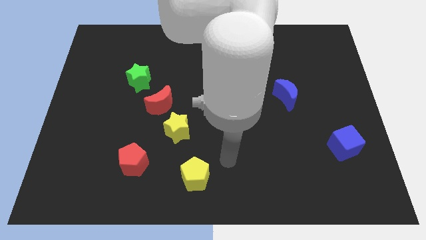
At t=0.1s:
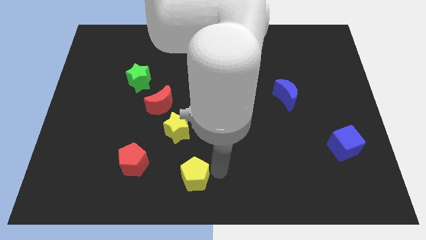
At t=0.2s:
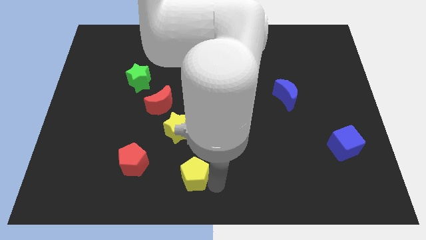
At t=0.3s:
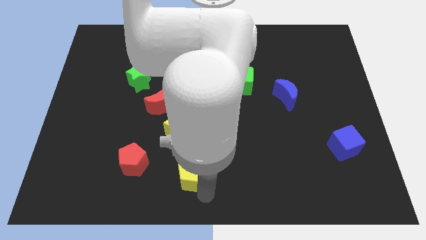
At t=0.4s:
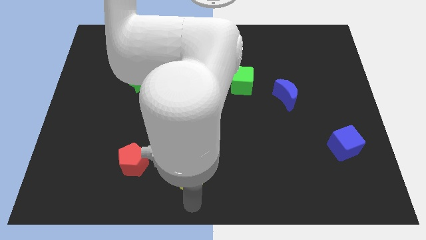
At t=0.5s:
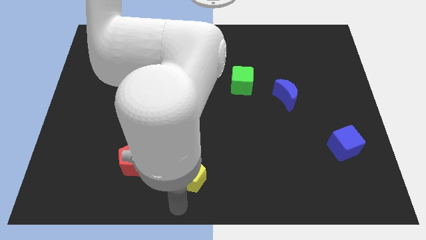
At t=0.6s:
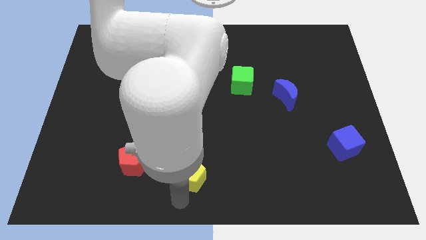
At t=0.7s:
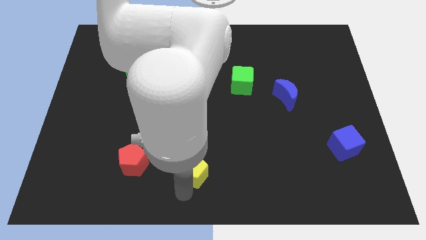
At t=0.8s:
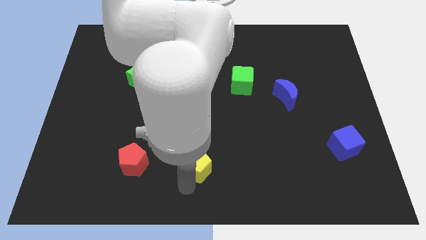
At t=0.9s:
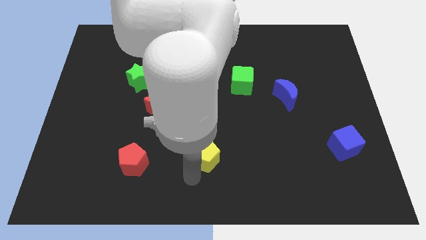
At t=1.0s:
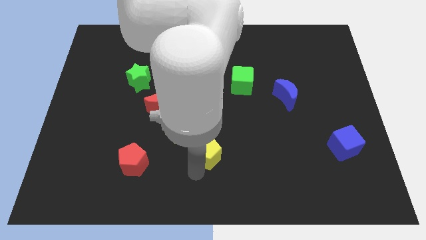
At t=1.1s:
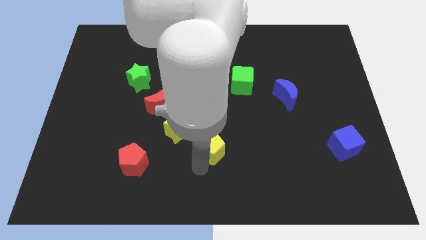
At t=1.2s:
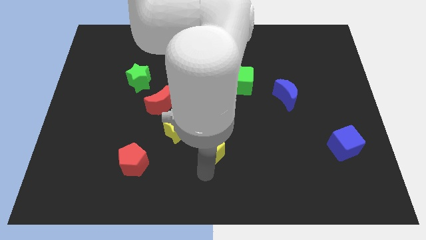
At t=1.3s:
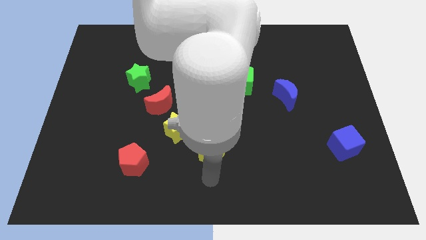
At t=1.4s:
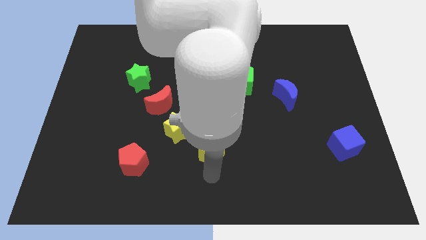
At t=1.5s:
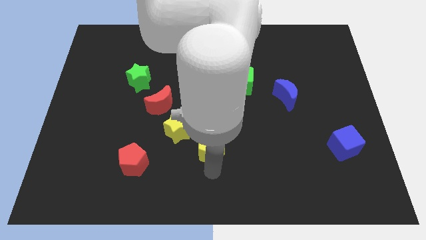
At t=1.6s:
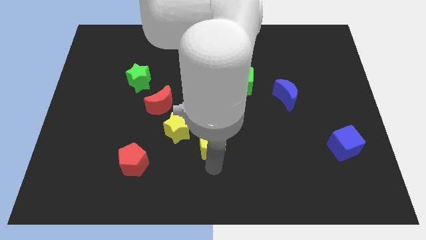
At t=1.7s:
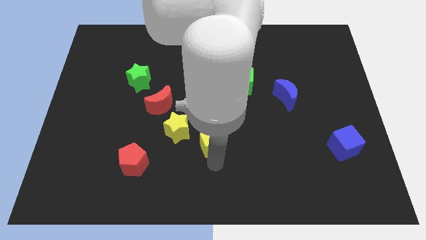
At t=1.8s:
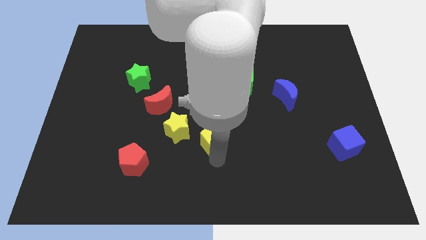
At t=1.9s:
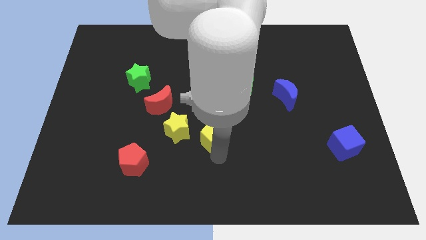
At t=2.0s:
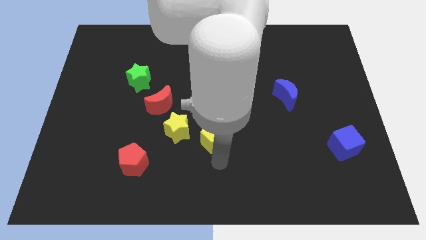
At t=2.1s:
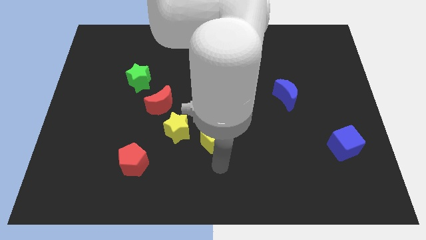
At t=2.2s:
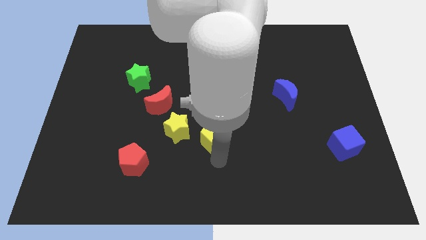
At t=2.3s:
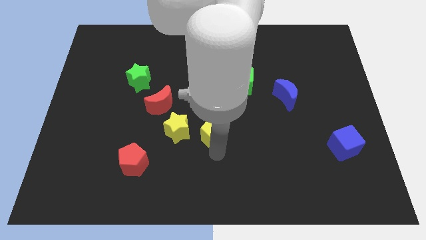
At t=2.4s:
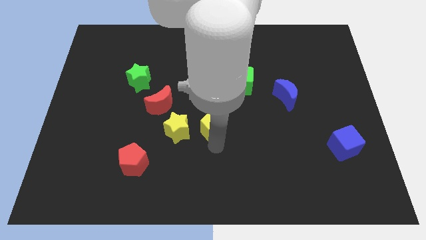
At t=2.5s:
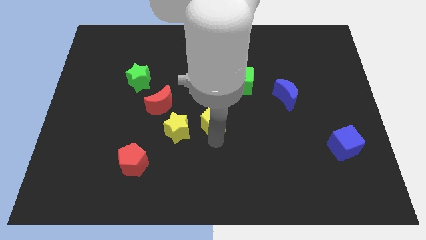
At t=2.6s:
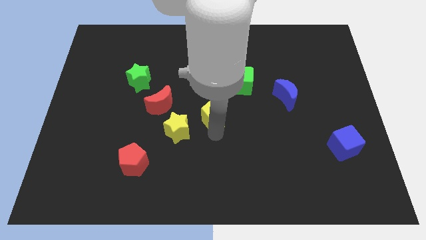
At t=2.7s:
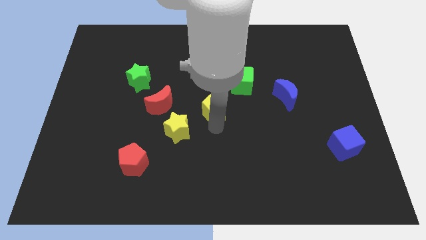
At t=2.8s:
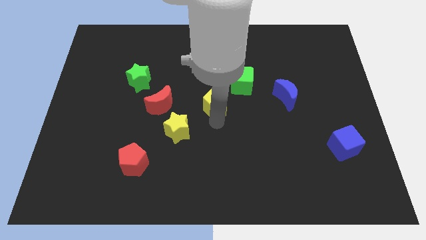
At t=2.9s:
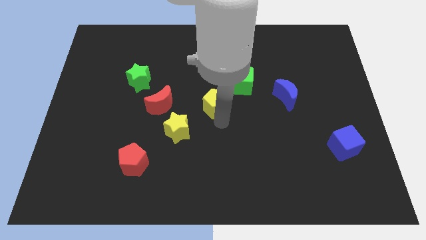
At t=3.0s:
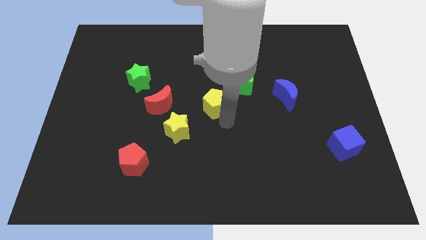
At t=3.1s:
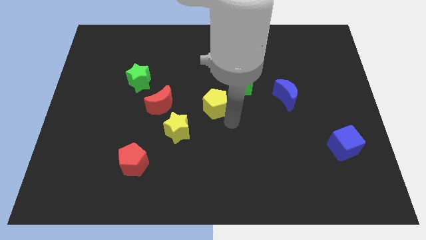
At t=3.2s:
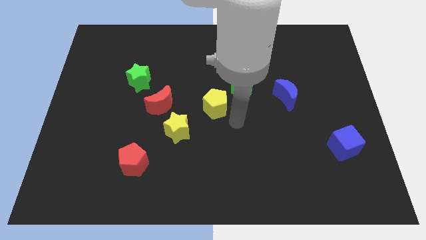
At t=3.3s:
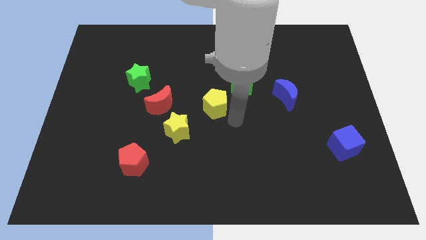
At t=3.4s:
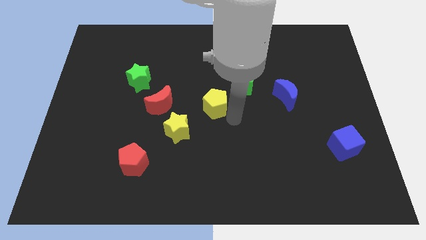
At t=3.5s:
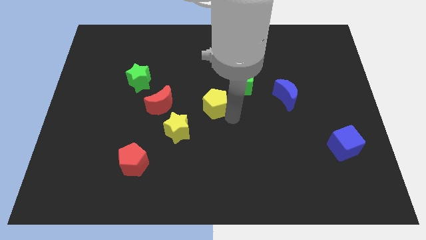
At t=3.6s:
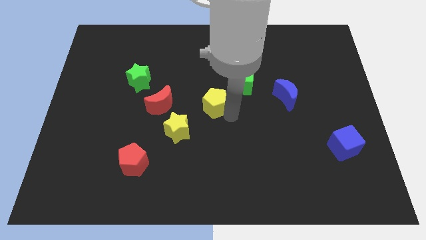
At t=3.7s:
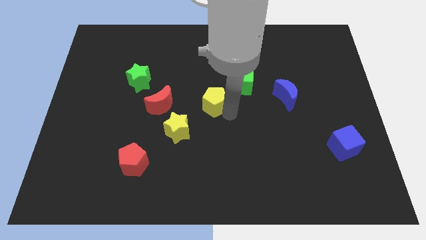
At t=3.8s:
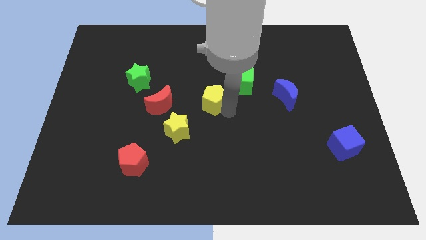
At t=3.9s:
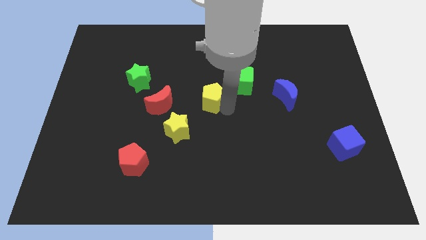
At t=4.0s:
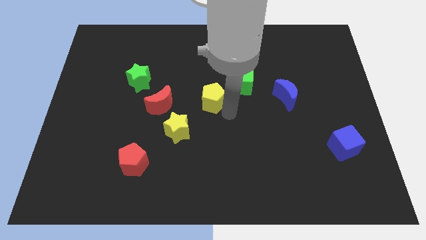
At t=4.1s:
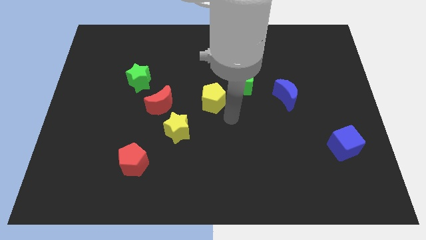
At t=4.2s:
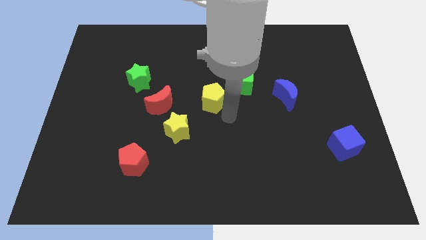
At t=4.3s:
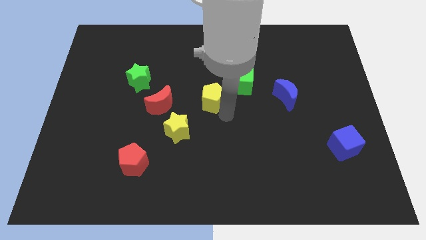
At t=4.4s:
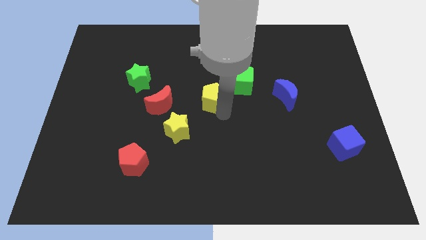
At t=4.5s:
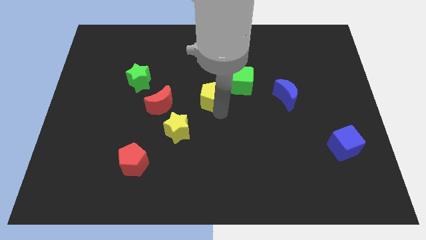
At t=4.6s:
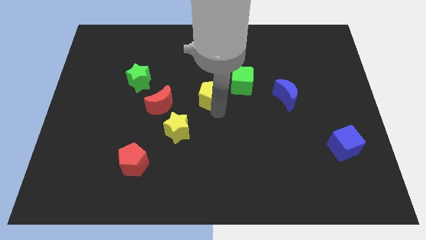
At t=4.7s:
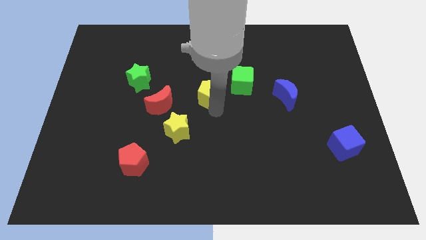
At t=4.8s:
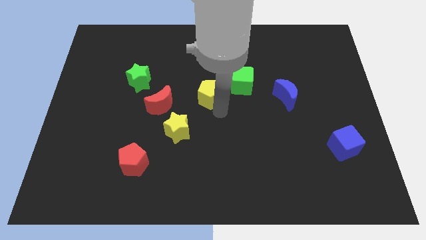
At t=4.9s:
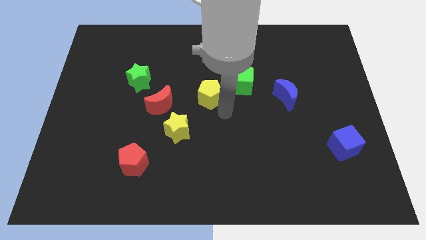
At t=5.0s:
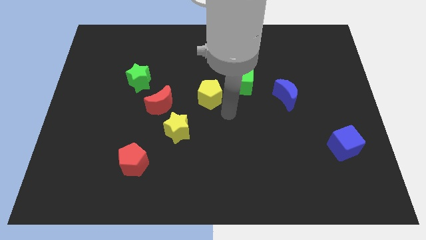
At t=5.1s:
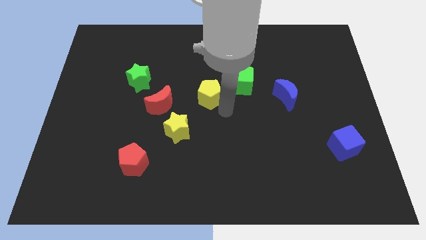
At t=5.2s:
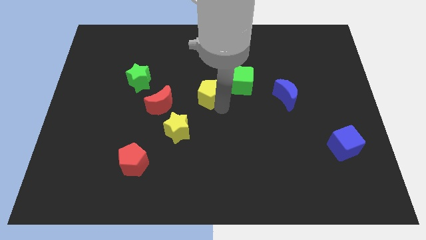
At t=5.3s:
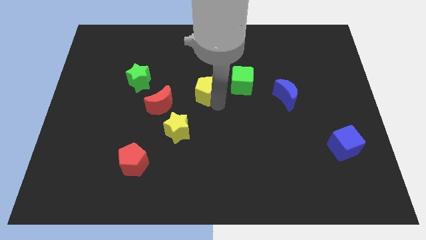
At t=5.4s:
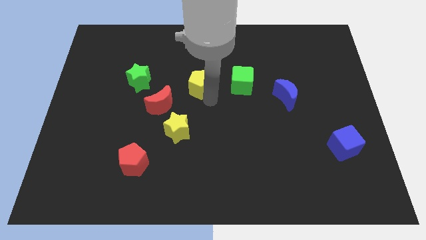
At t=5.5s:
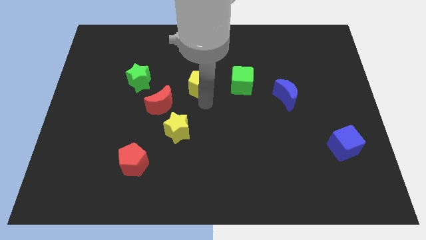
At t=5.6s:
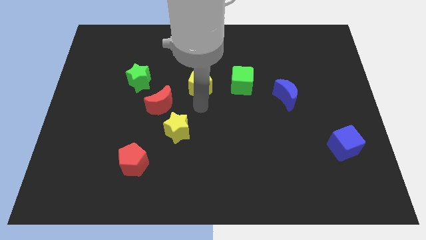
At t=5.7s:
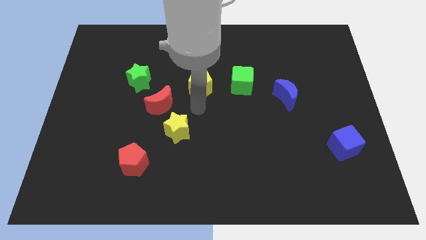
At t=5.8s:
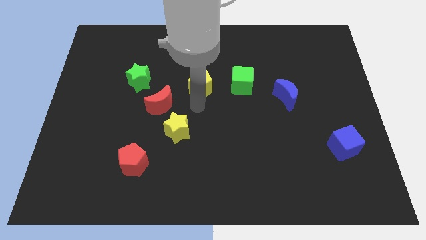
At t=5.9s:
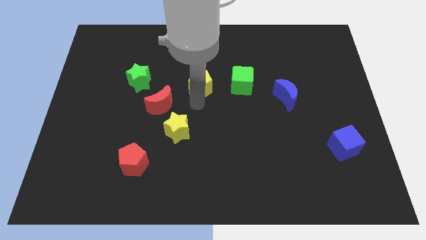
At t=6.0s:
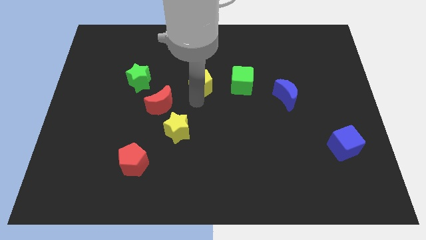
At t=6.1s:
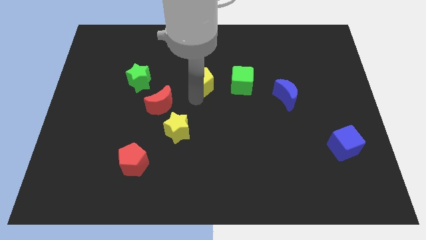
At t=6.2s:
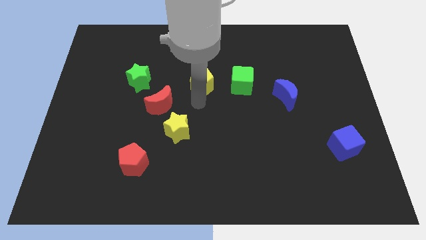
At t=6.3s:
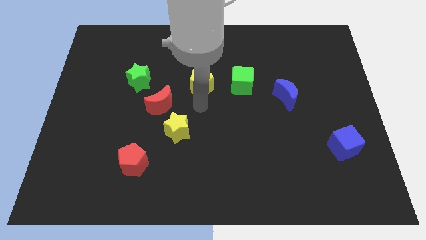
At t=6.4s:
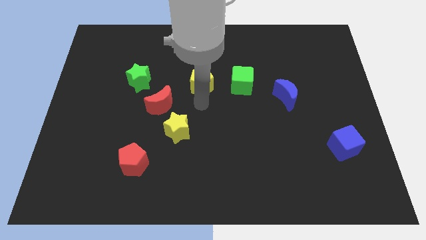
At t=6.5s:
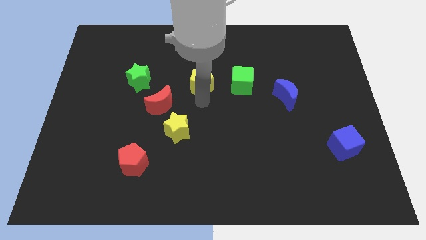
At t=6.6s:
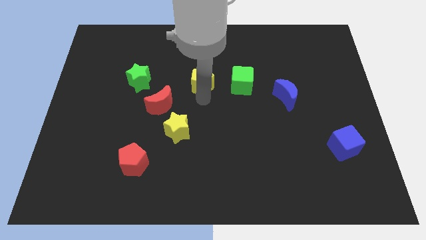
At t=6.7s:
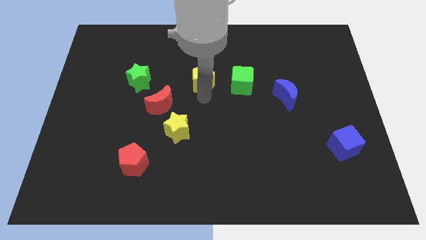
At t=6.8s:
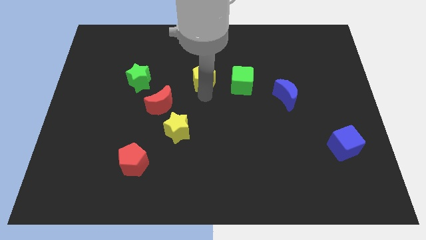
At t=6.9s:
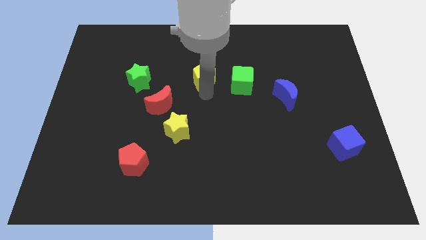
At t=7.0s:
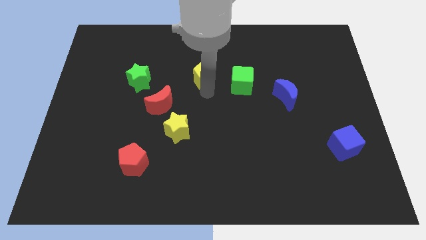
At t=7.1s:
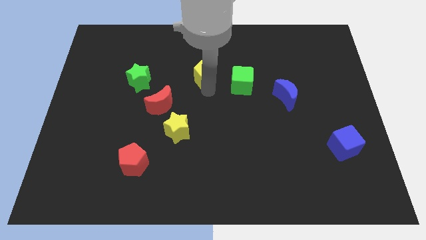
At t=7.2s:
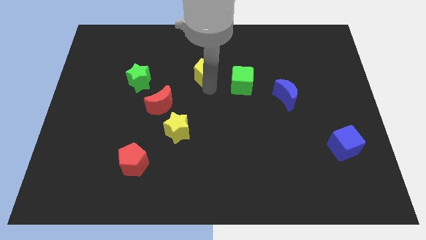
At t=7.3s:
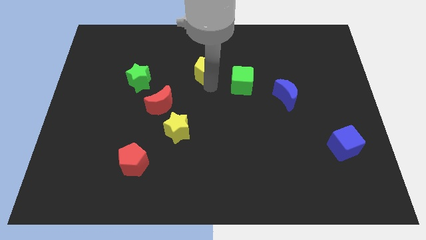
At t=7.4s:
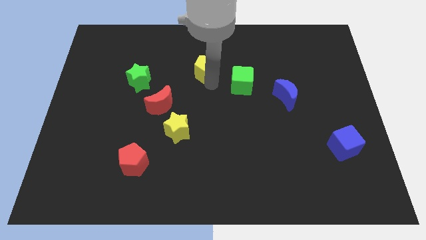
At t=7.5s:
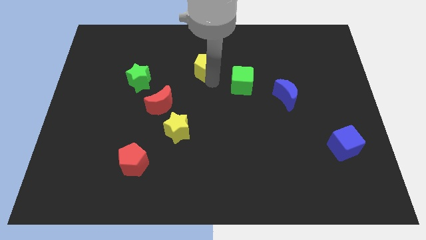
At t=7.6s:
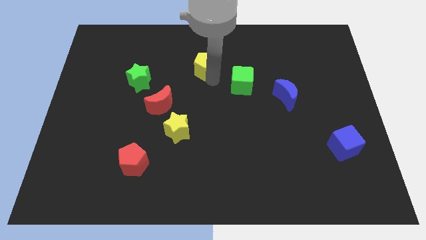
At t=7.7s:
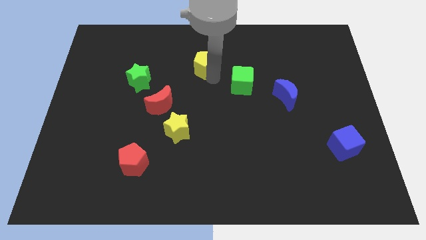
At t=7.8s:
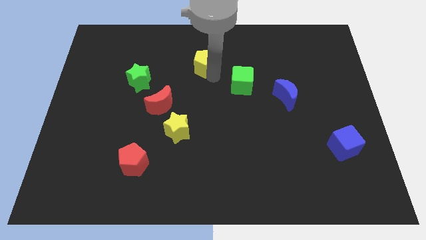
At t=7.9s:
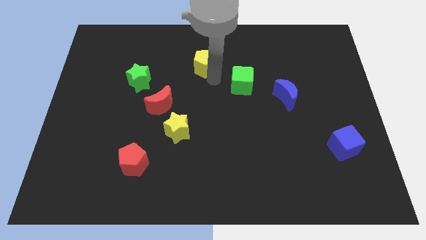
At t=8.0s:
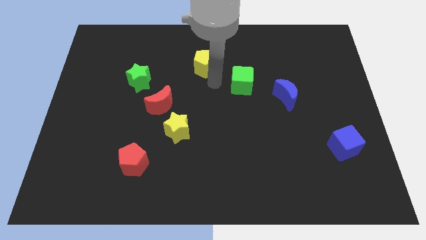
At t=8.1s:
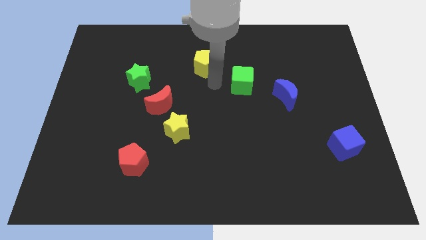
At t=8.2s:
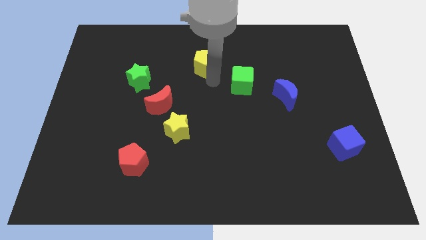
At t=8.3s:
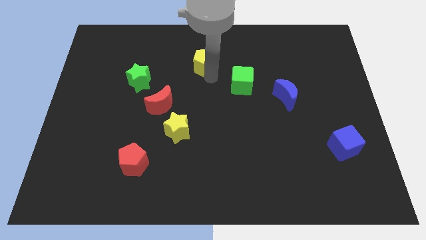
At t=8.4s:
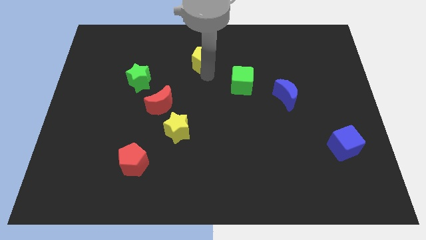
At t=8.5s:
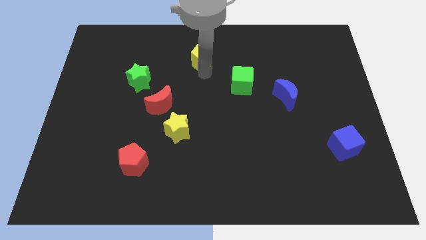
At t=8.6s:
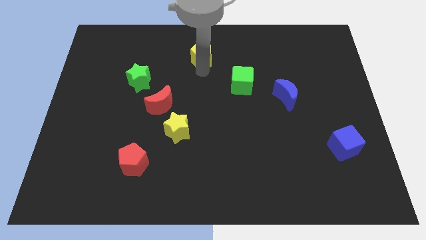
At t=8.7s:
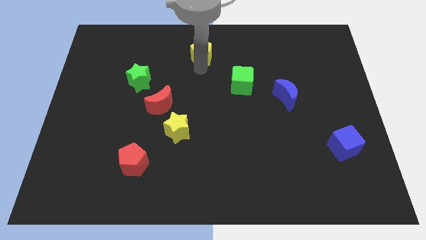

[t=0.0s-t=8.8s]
put the yellow pentagon to the towards your base
